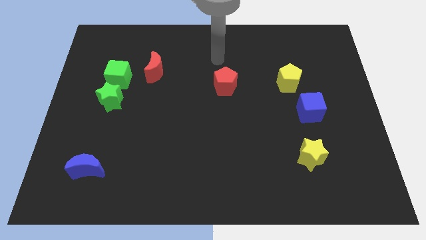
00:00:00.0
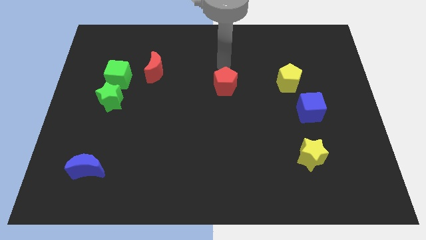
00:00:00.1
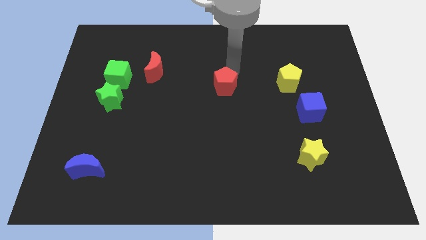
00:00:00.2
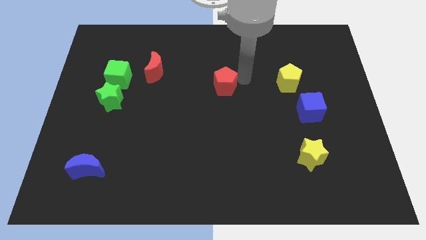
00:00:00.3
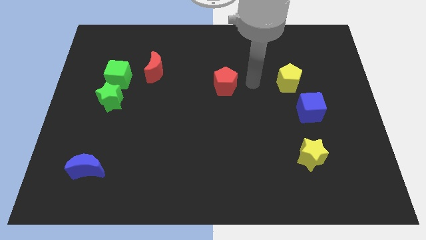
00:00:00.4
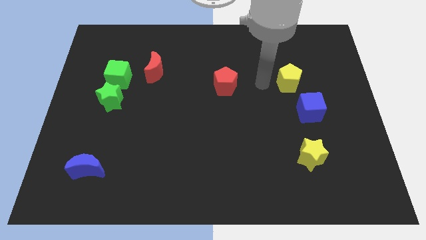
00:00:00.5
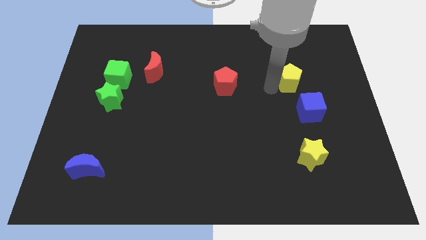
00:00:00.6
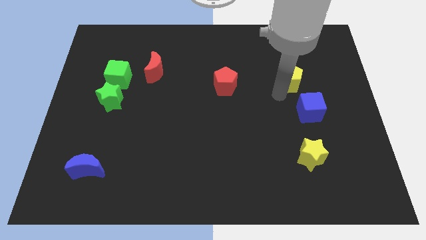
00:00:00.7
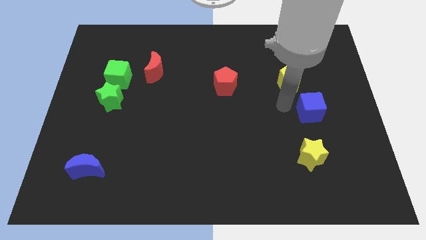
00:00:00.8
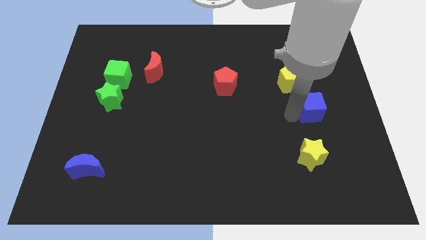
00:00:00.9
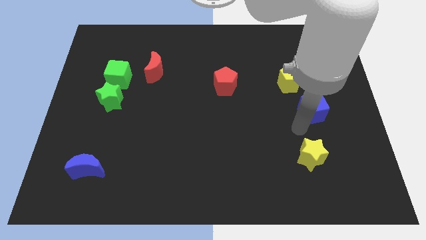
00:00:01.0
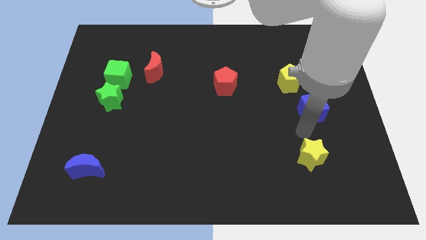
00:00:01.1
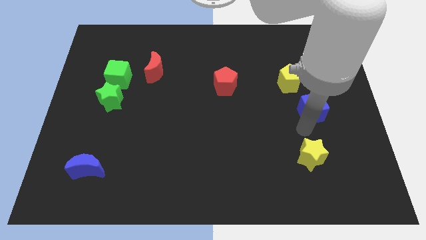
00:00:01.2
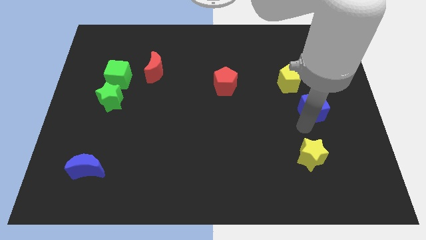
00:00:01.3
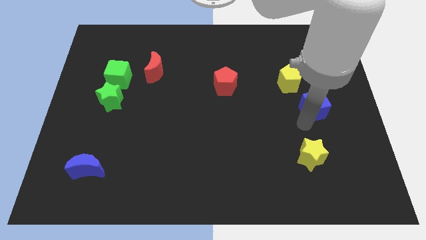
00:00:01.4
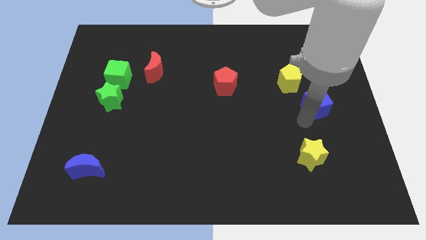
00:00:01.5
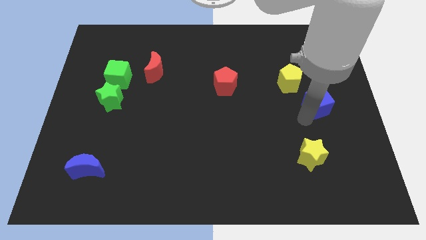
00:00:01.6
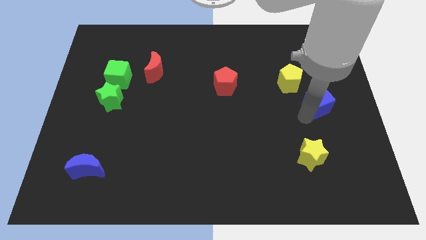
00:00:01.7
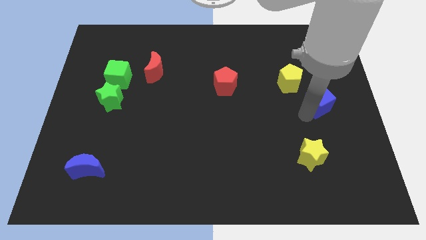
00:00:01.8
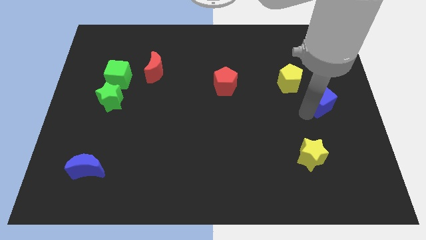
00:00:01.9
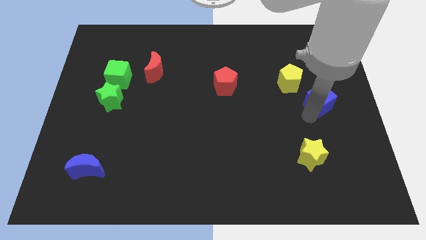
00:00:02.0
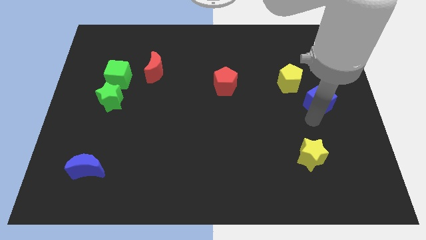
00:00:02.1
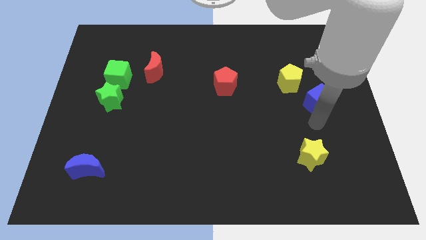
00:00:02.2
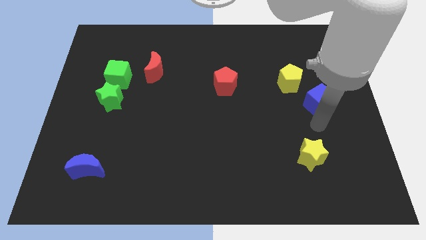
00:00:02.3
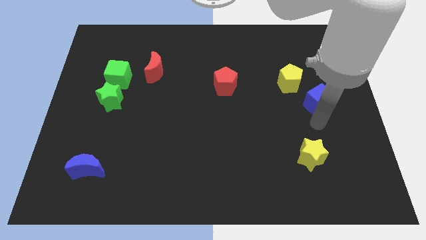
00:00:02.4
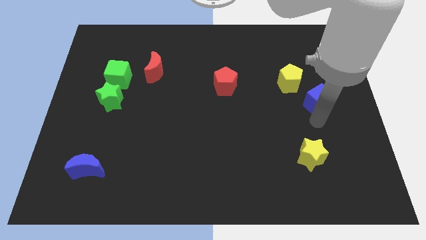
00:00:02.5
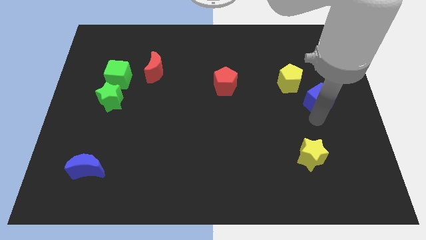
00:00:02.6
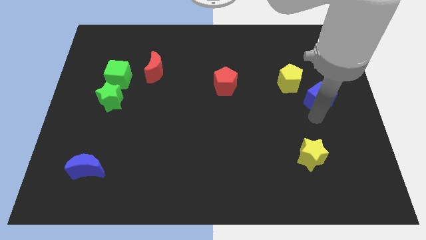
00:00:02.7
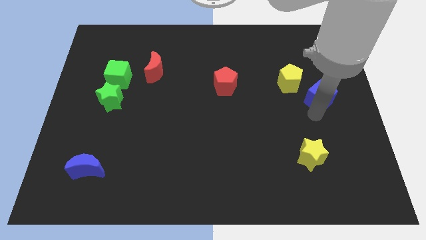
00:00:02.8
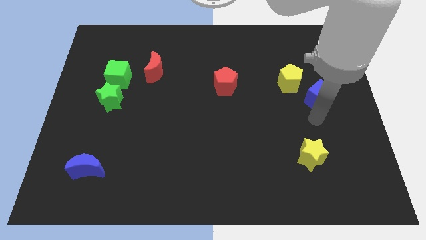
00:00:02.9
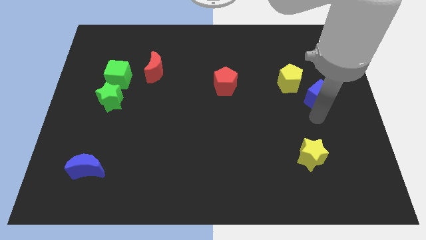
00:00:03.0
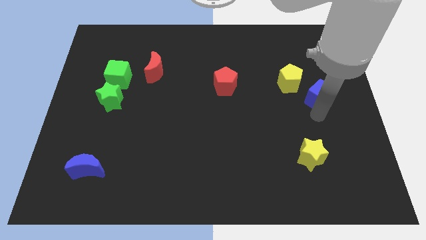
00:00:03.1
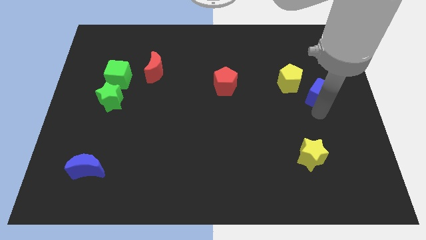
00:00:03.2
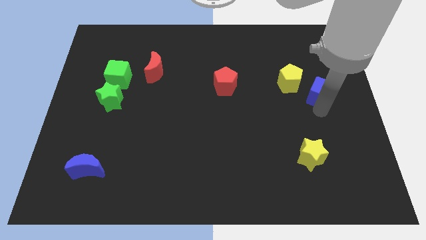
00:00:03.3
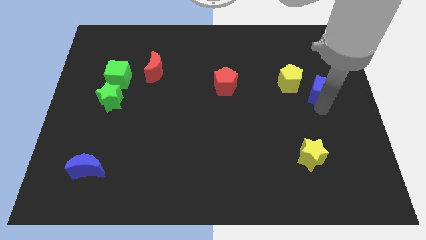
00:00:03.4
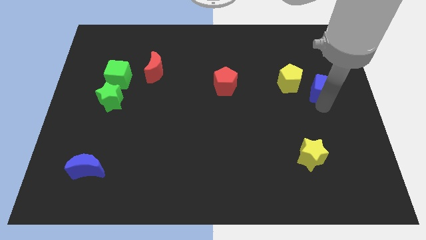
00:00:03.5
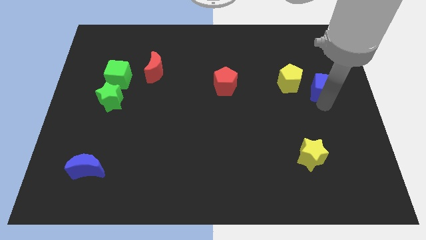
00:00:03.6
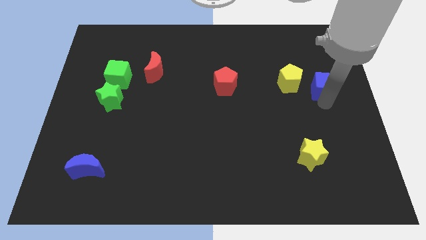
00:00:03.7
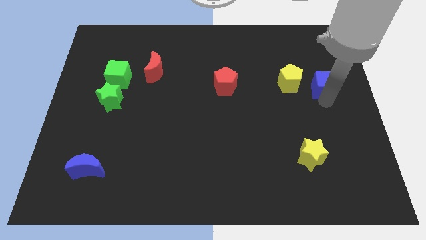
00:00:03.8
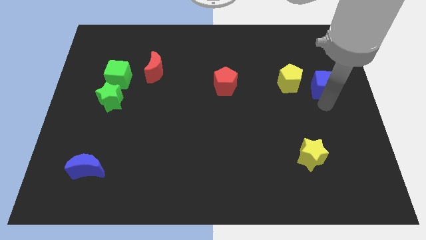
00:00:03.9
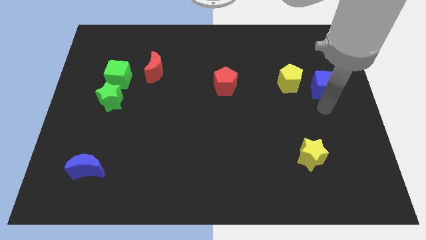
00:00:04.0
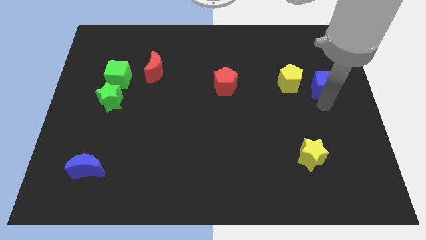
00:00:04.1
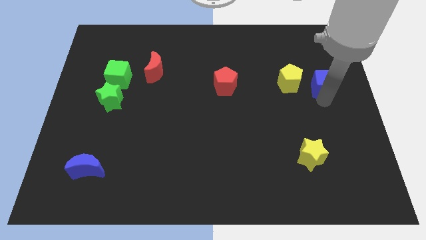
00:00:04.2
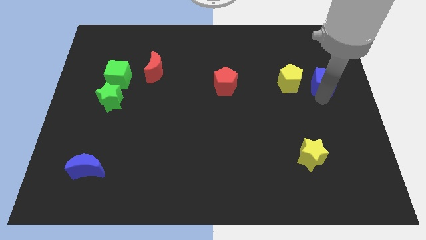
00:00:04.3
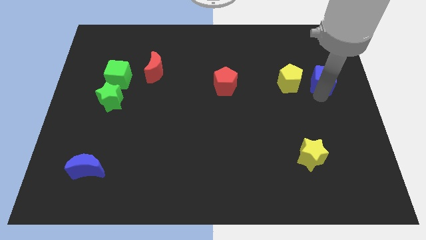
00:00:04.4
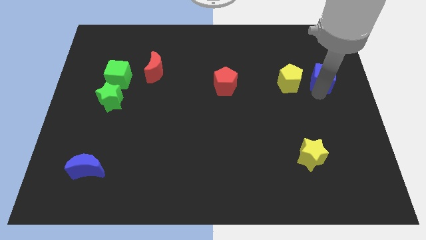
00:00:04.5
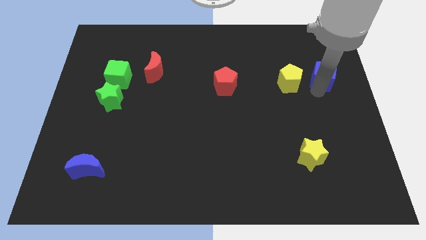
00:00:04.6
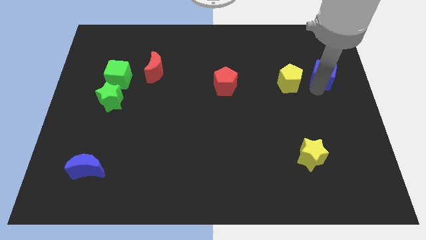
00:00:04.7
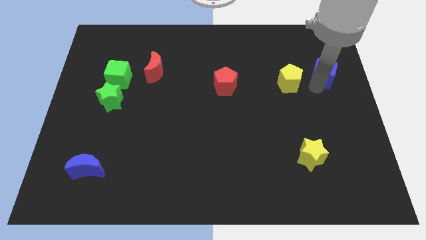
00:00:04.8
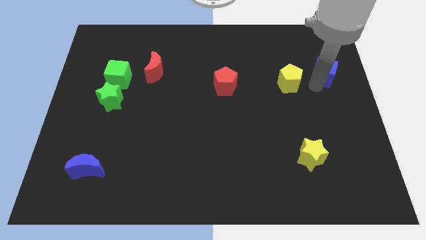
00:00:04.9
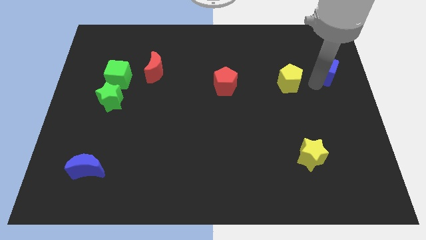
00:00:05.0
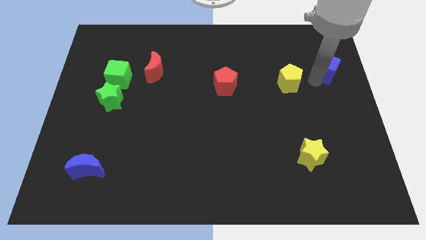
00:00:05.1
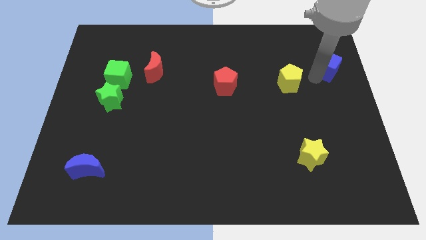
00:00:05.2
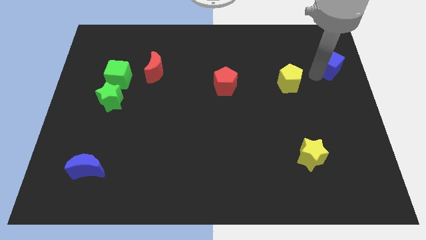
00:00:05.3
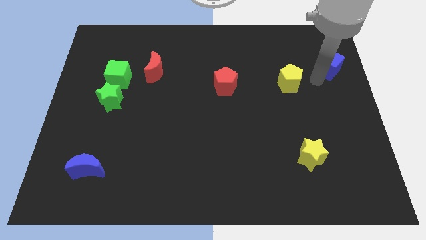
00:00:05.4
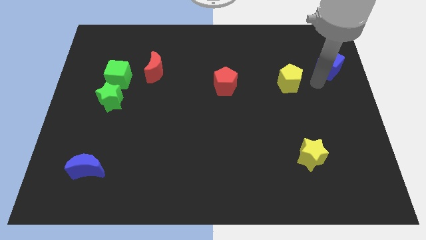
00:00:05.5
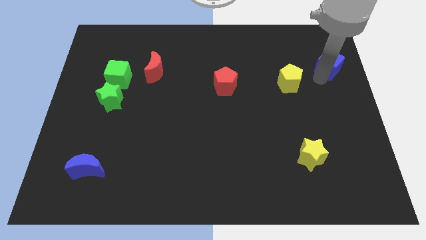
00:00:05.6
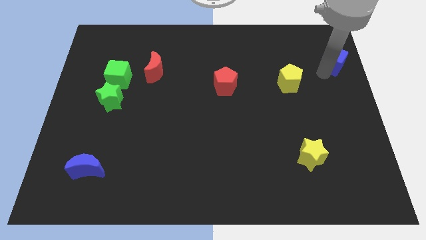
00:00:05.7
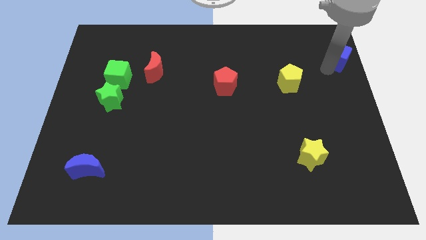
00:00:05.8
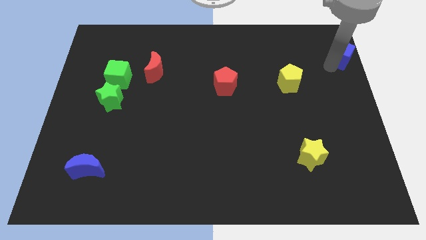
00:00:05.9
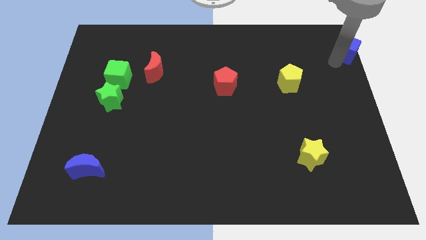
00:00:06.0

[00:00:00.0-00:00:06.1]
put the blue cube to the upper right corner

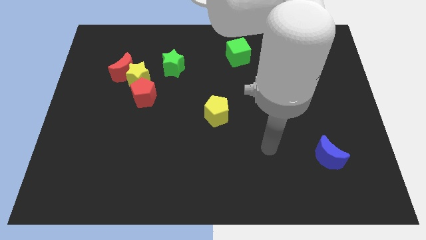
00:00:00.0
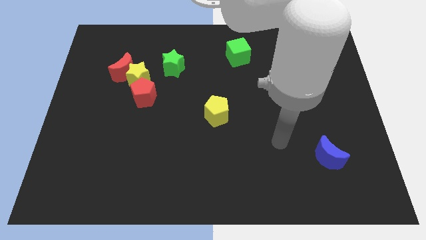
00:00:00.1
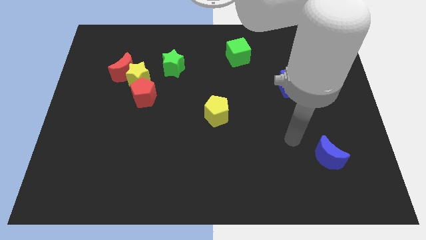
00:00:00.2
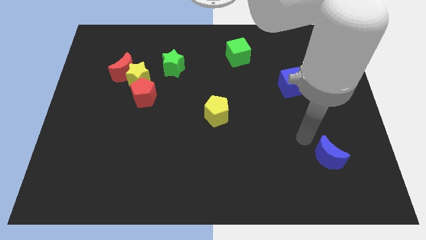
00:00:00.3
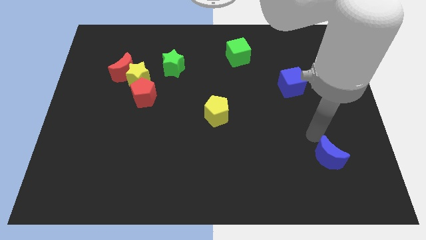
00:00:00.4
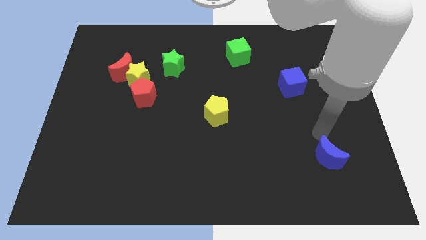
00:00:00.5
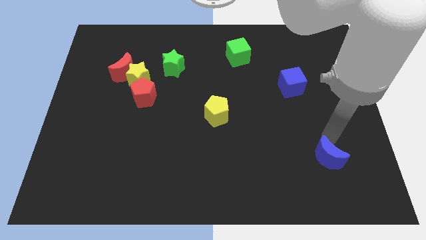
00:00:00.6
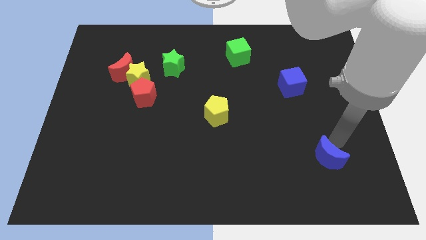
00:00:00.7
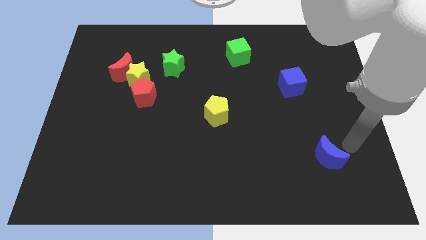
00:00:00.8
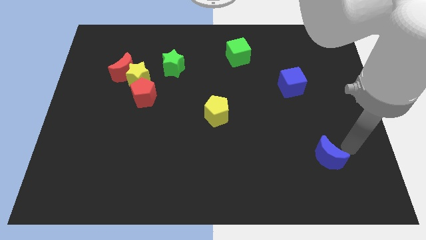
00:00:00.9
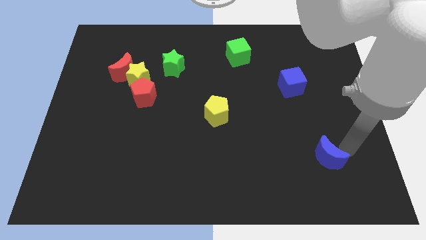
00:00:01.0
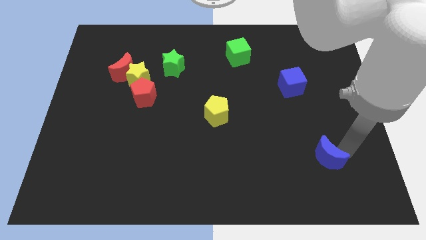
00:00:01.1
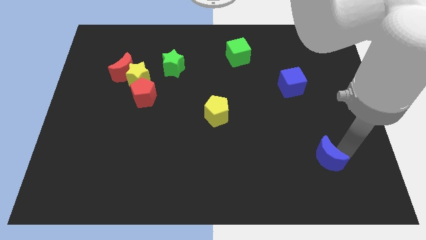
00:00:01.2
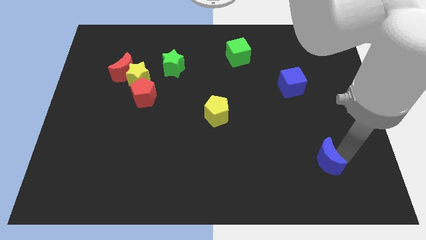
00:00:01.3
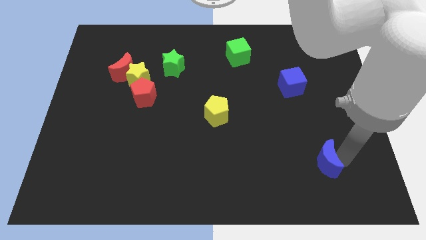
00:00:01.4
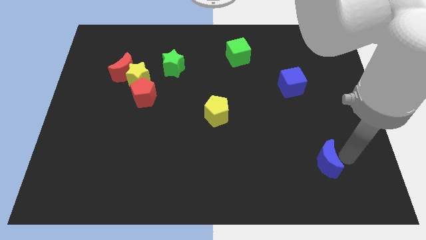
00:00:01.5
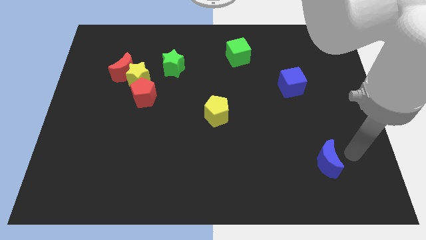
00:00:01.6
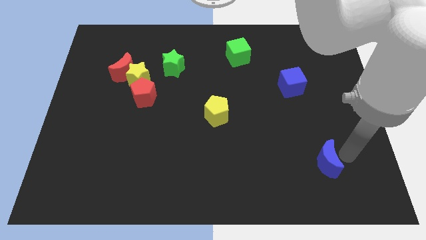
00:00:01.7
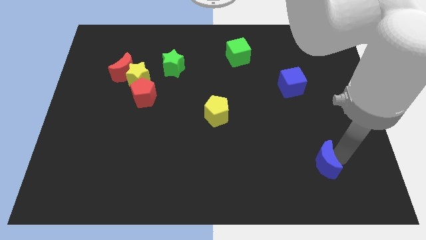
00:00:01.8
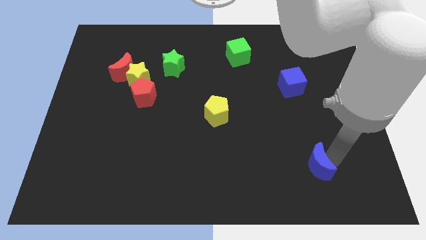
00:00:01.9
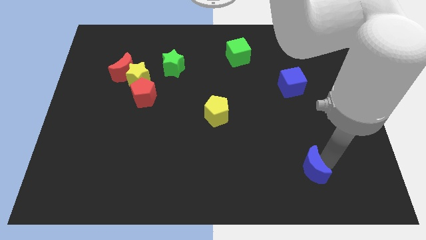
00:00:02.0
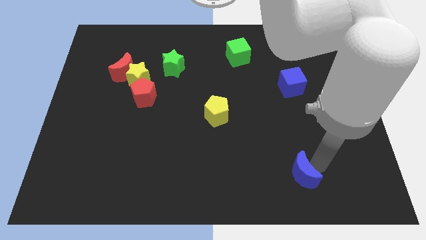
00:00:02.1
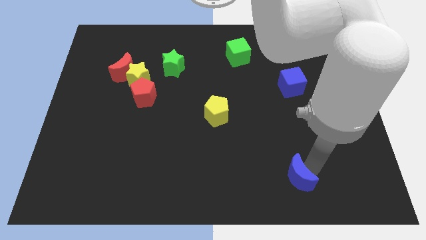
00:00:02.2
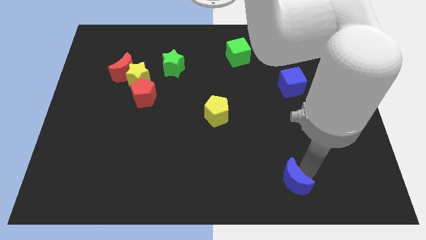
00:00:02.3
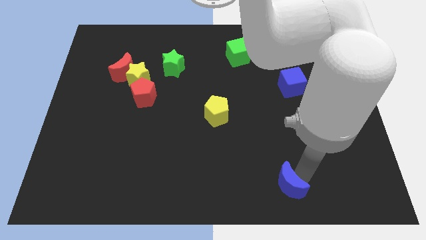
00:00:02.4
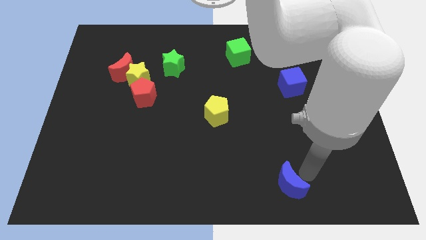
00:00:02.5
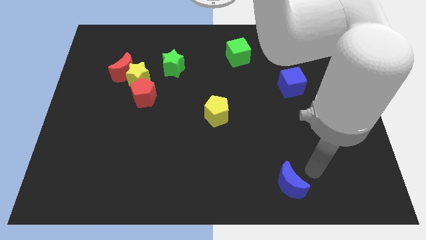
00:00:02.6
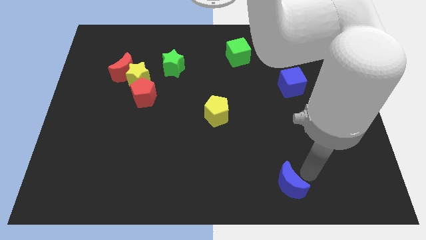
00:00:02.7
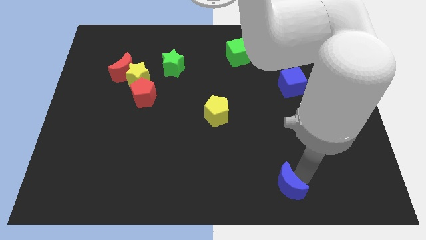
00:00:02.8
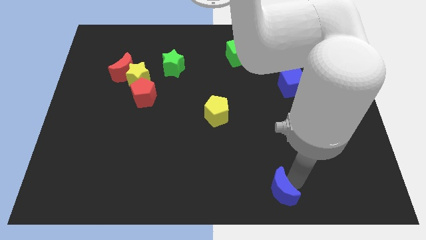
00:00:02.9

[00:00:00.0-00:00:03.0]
move the blue moon to the bottom side
